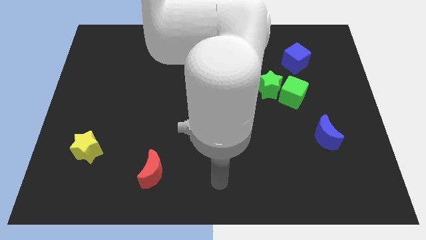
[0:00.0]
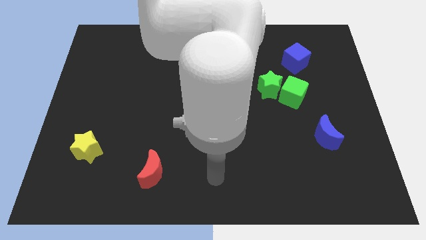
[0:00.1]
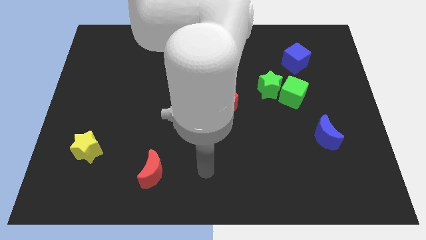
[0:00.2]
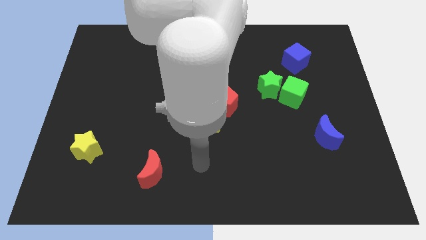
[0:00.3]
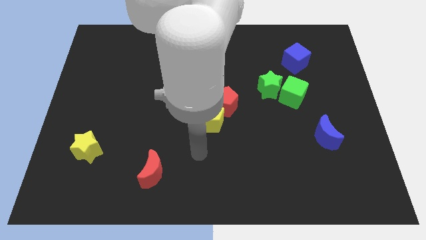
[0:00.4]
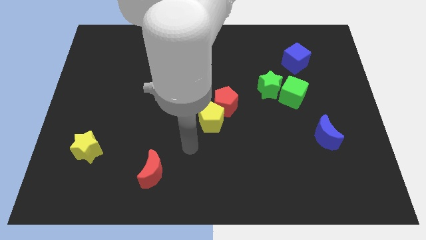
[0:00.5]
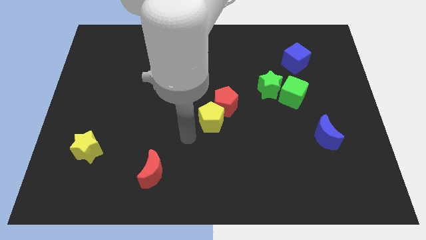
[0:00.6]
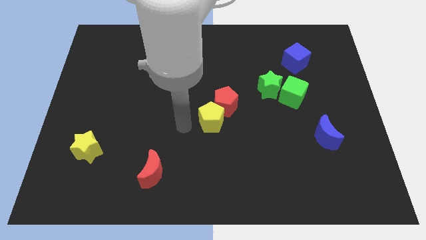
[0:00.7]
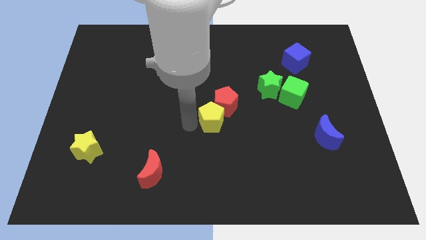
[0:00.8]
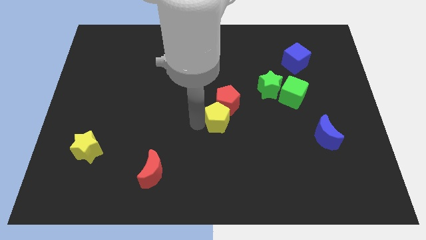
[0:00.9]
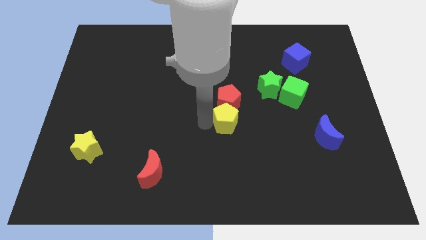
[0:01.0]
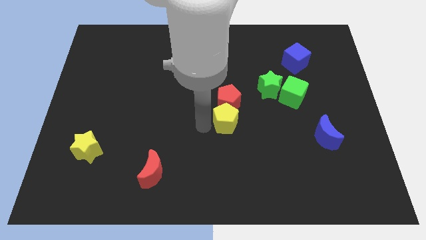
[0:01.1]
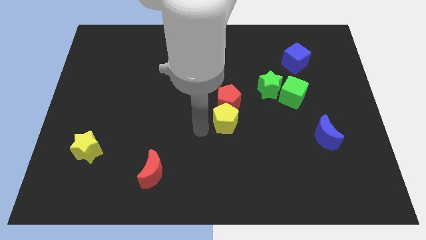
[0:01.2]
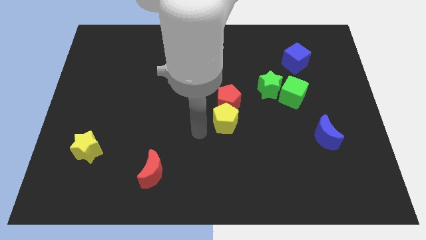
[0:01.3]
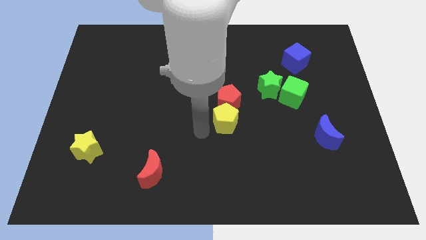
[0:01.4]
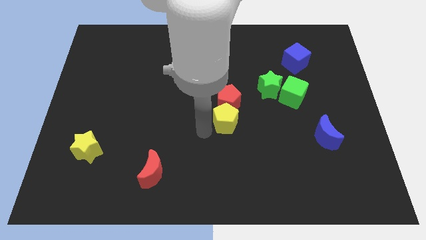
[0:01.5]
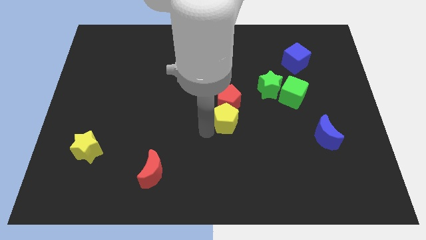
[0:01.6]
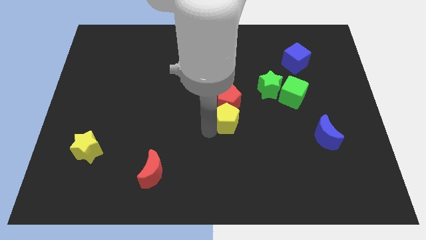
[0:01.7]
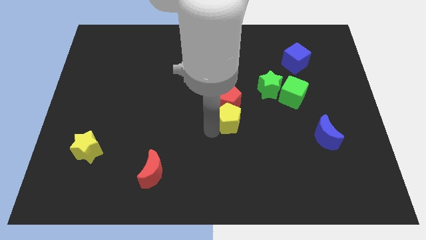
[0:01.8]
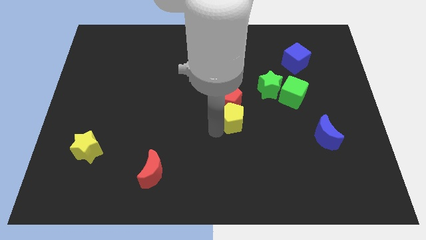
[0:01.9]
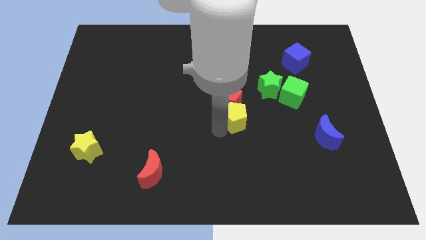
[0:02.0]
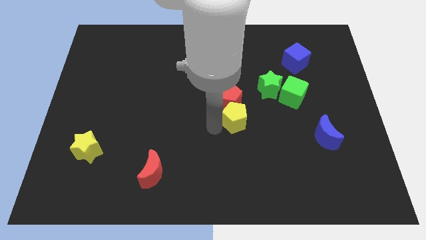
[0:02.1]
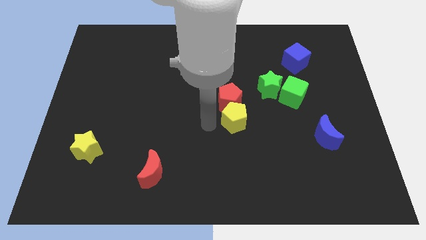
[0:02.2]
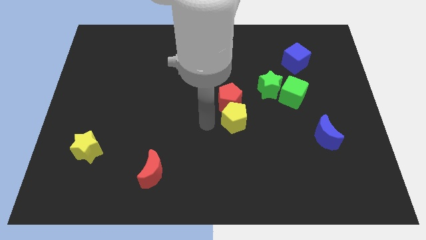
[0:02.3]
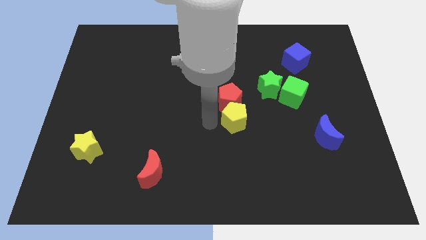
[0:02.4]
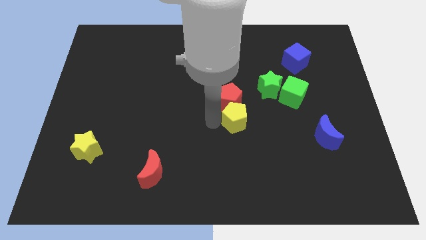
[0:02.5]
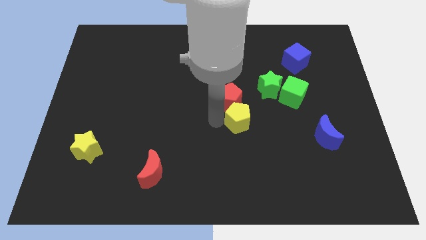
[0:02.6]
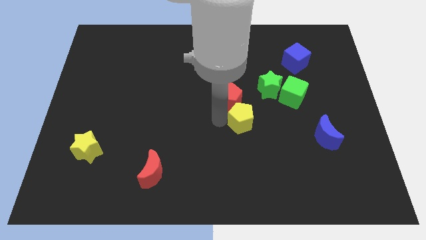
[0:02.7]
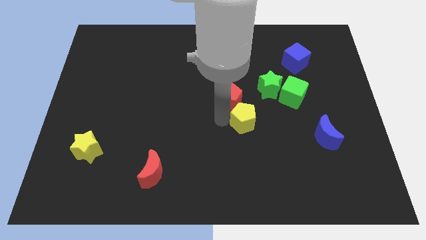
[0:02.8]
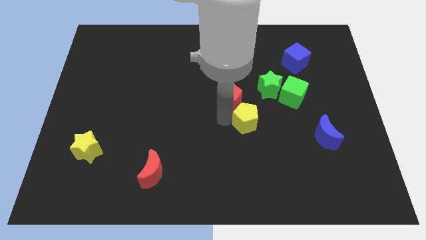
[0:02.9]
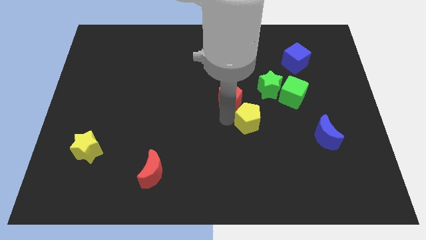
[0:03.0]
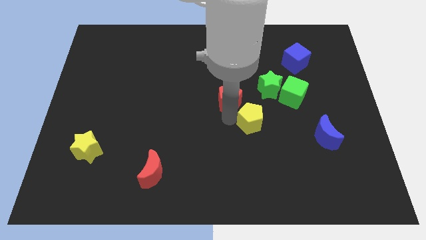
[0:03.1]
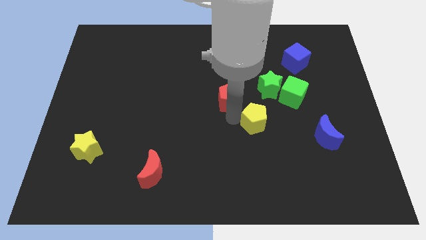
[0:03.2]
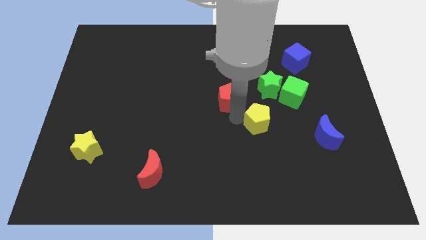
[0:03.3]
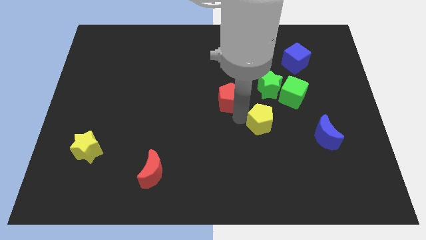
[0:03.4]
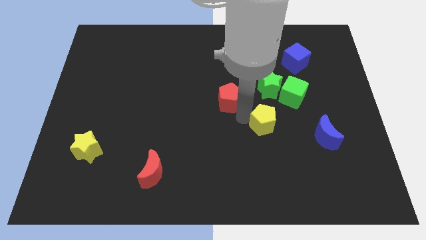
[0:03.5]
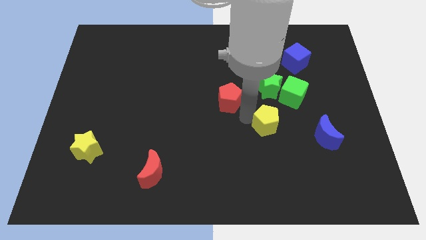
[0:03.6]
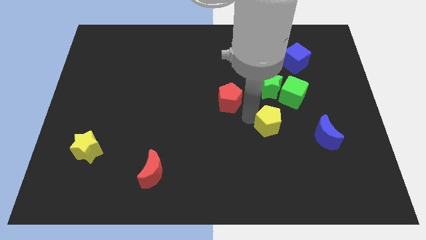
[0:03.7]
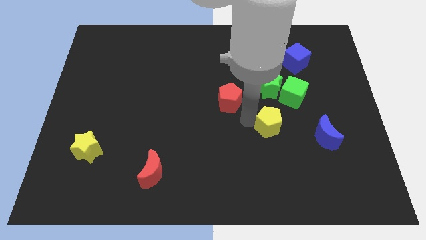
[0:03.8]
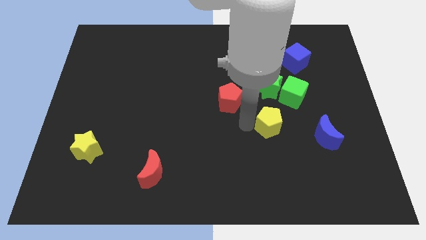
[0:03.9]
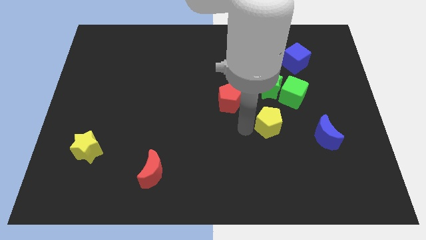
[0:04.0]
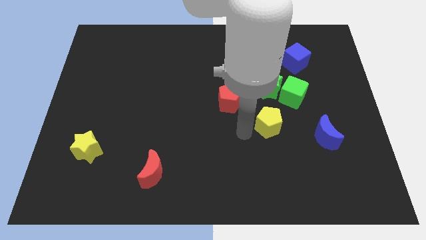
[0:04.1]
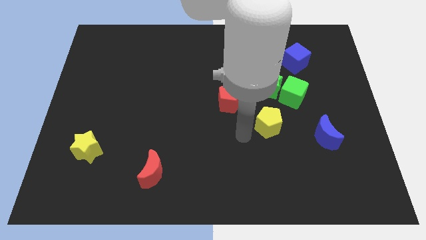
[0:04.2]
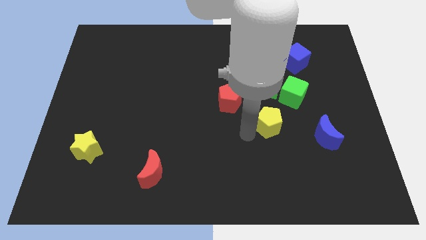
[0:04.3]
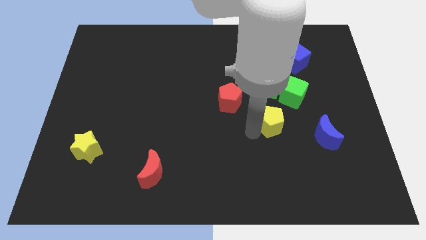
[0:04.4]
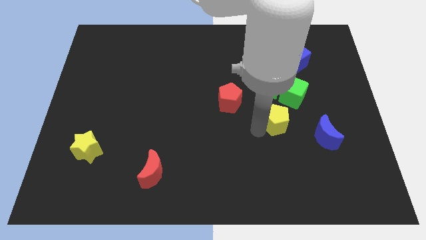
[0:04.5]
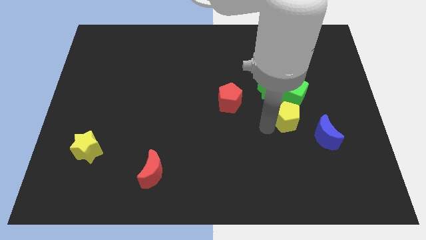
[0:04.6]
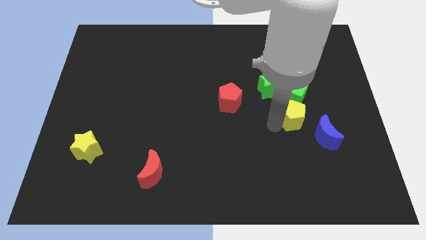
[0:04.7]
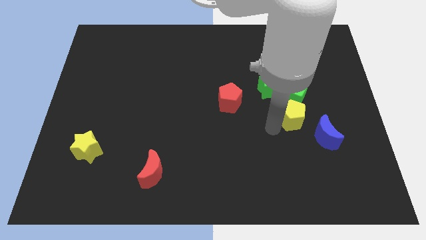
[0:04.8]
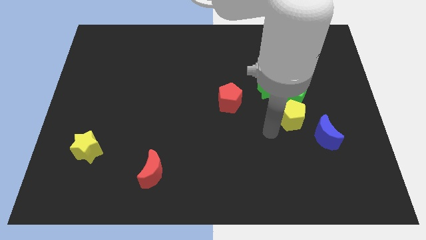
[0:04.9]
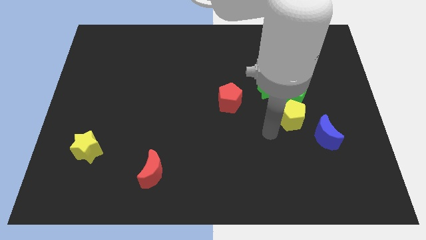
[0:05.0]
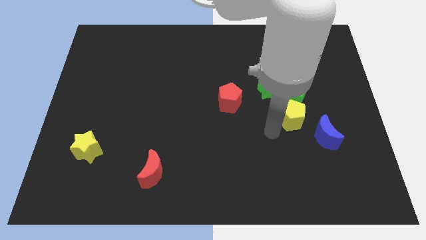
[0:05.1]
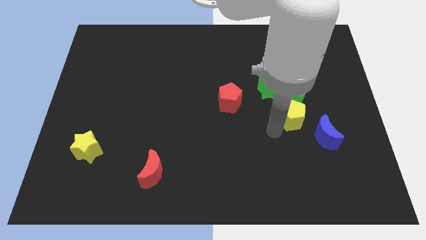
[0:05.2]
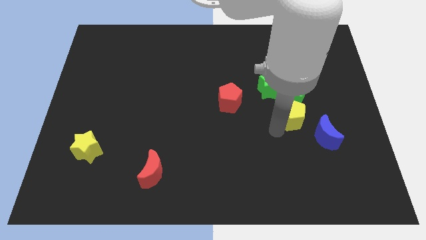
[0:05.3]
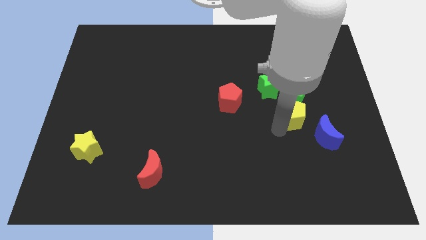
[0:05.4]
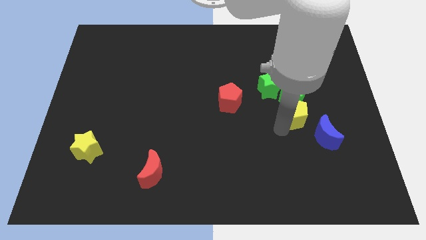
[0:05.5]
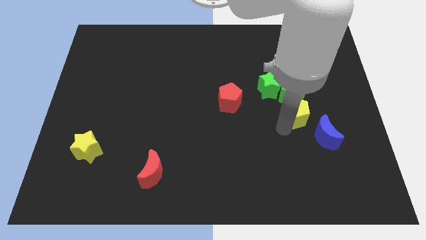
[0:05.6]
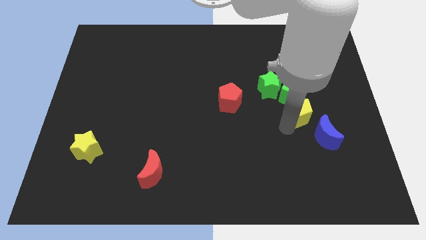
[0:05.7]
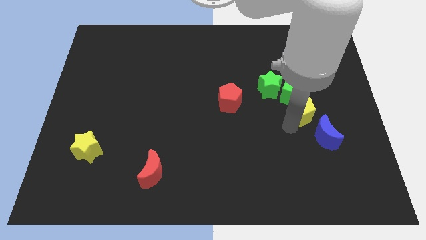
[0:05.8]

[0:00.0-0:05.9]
slide the yellow pentagon to the top of the blue moon

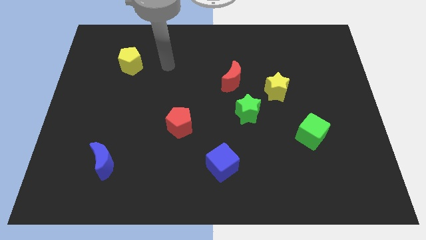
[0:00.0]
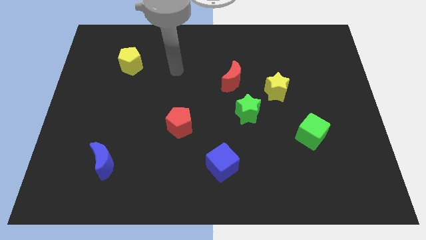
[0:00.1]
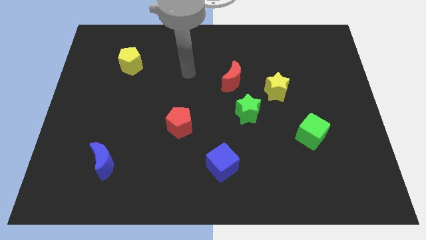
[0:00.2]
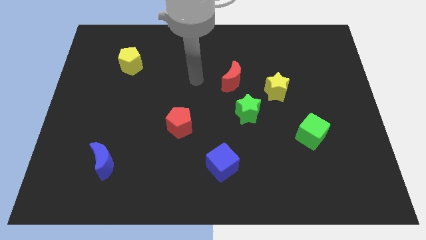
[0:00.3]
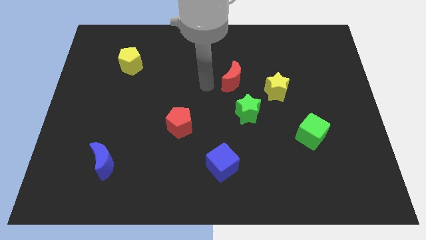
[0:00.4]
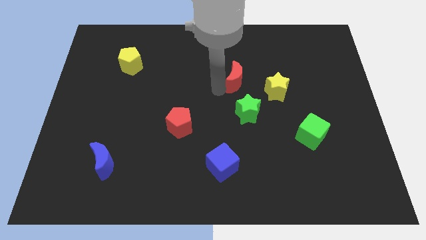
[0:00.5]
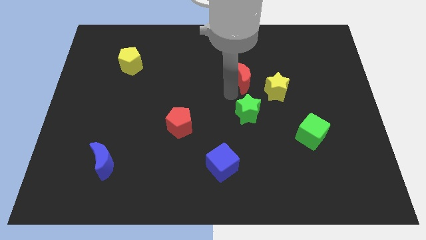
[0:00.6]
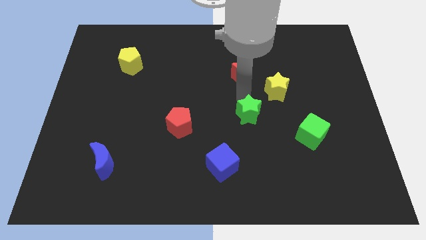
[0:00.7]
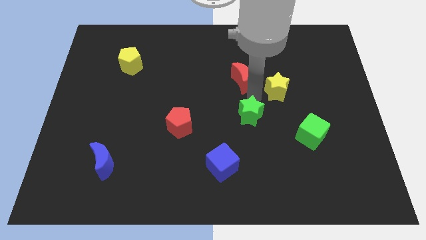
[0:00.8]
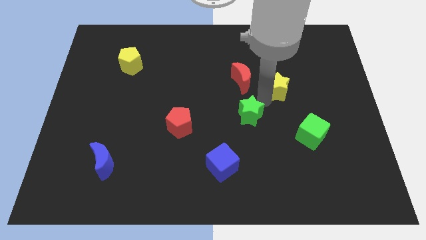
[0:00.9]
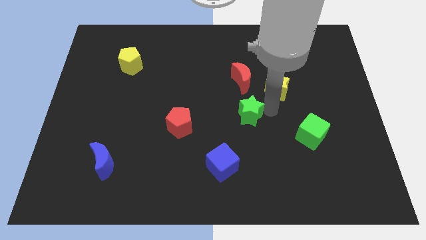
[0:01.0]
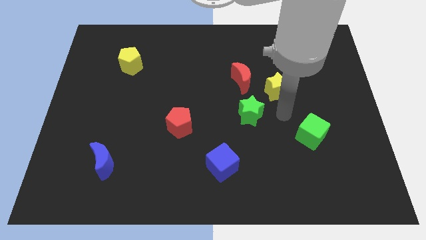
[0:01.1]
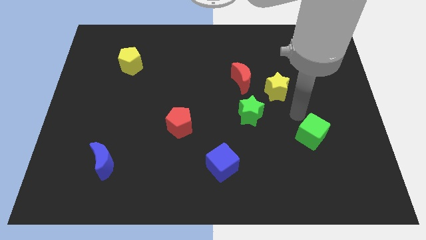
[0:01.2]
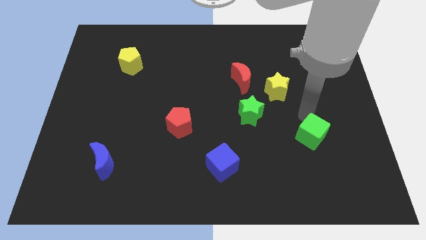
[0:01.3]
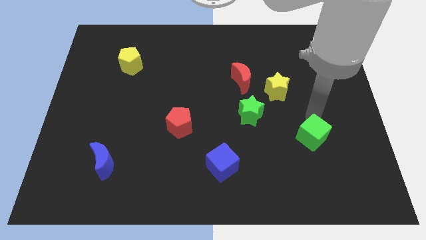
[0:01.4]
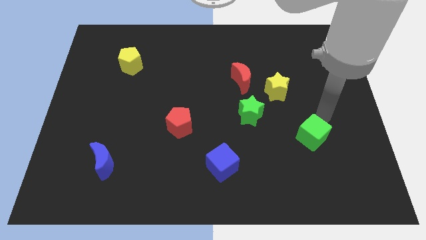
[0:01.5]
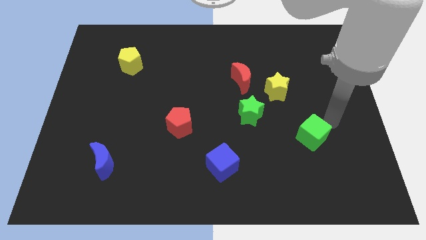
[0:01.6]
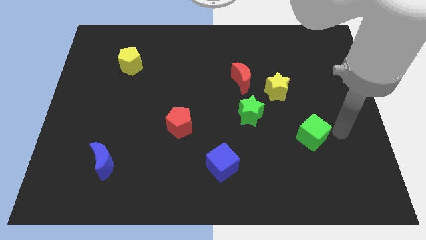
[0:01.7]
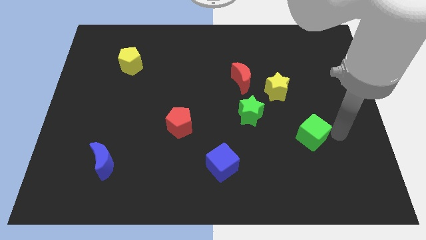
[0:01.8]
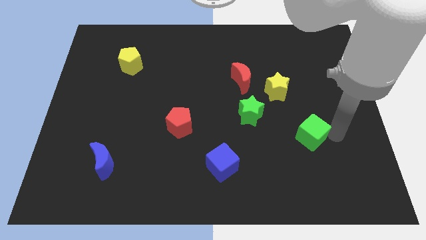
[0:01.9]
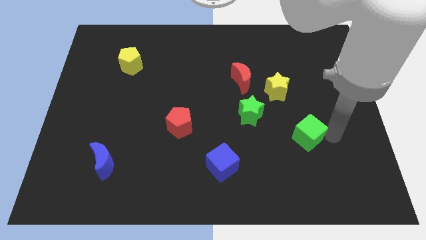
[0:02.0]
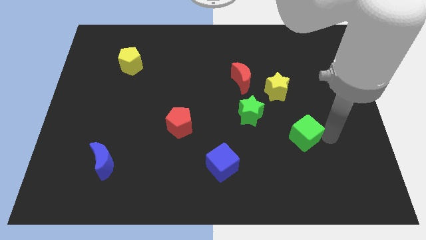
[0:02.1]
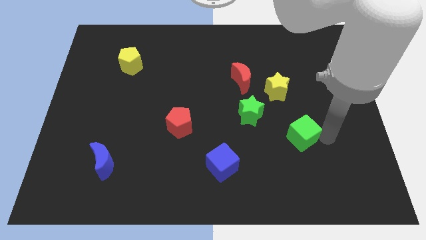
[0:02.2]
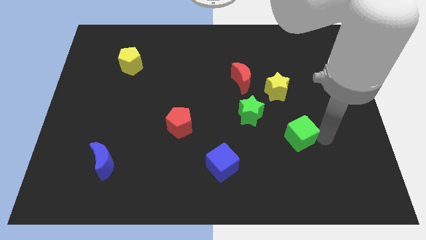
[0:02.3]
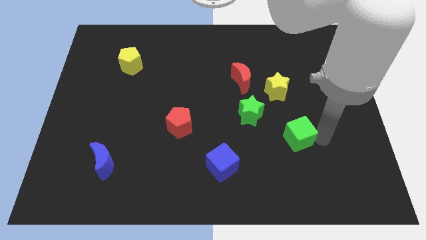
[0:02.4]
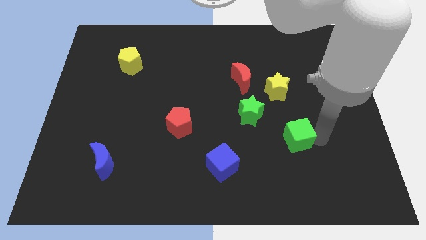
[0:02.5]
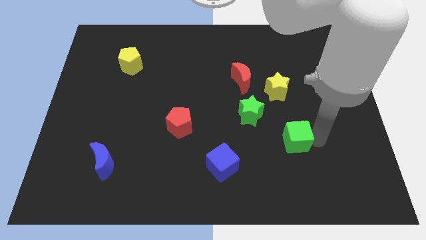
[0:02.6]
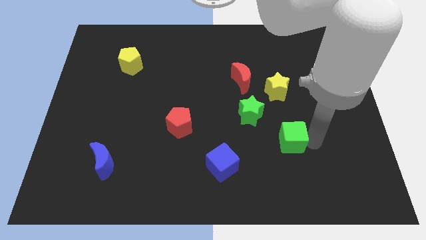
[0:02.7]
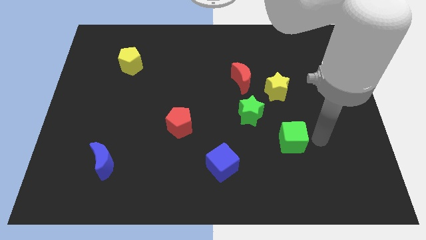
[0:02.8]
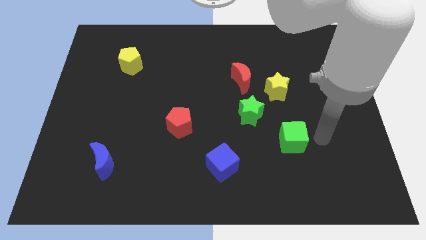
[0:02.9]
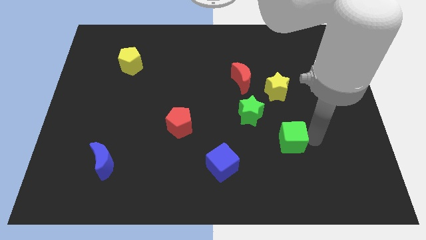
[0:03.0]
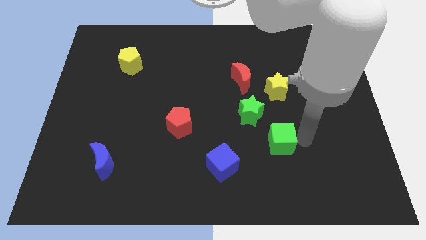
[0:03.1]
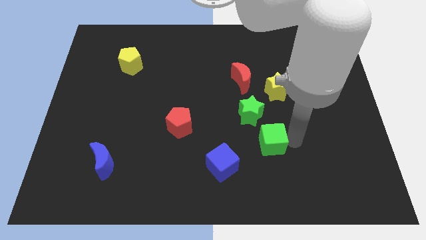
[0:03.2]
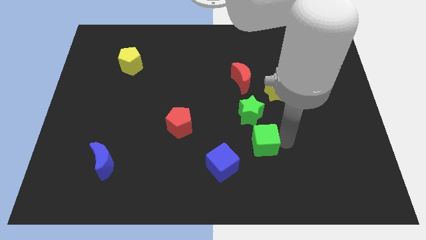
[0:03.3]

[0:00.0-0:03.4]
move the green cube diagonally up and to the right of the blue cube
